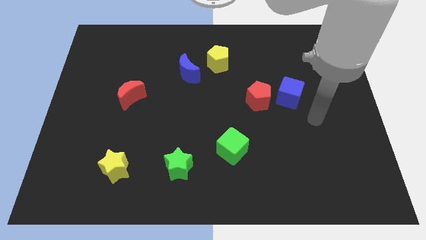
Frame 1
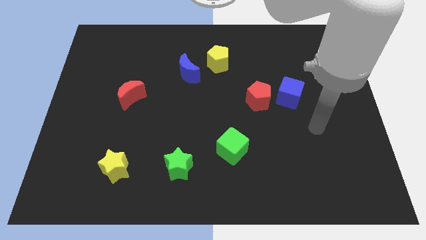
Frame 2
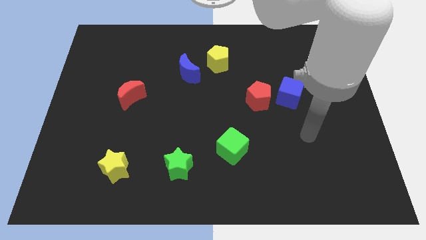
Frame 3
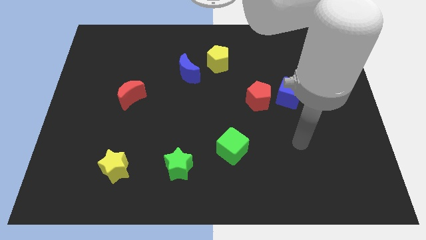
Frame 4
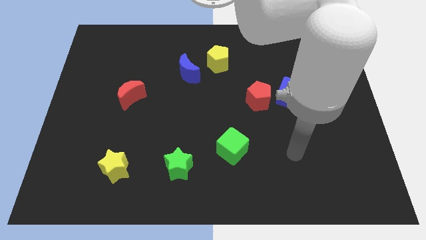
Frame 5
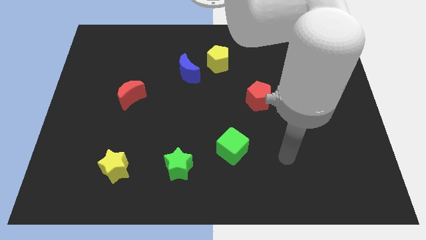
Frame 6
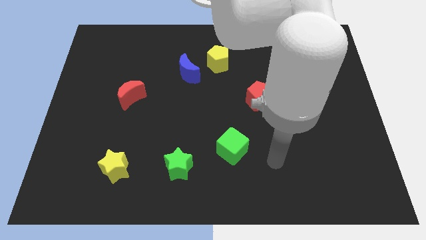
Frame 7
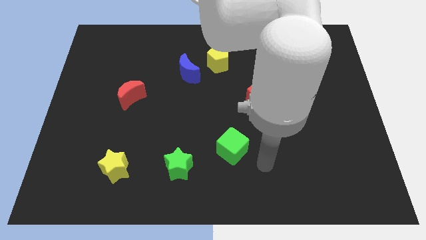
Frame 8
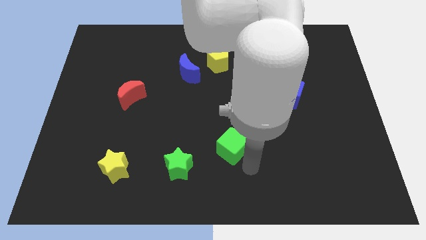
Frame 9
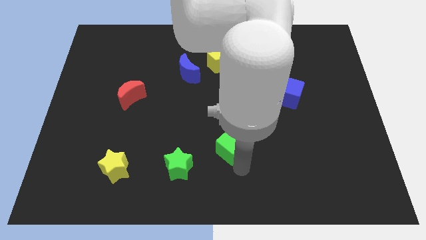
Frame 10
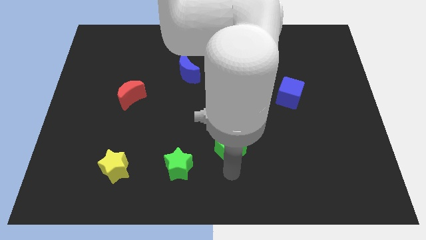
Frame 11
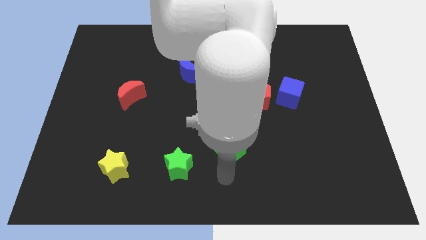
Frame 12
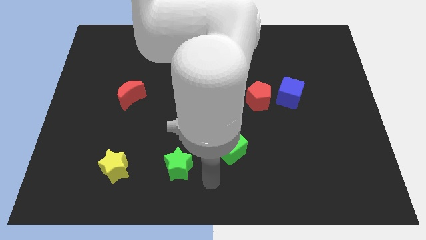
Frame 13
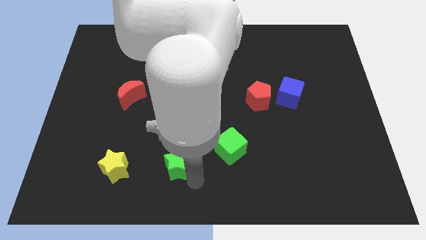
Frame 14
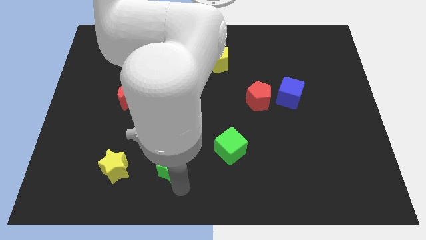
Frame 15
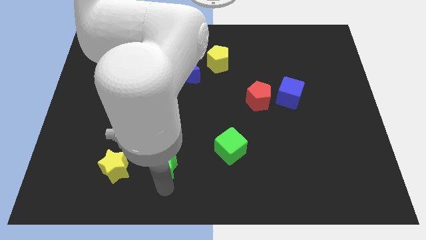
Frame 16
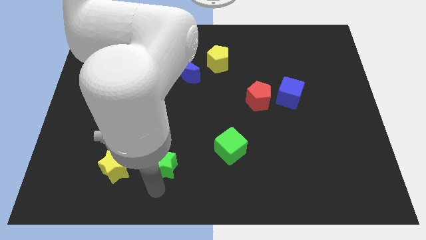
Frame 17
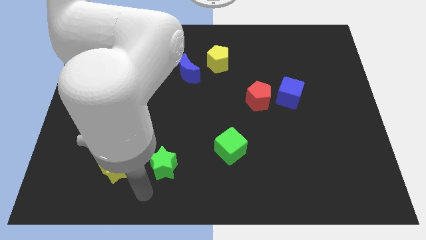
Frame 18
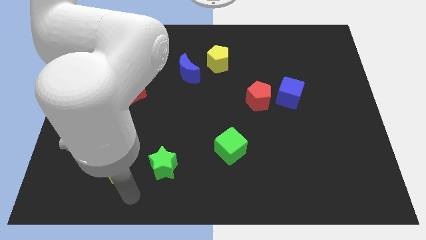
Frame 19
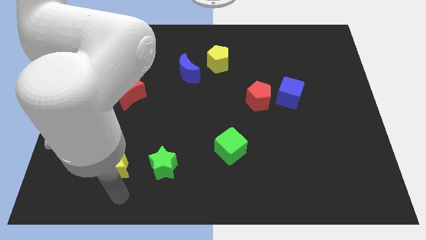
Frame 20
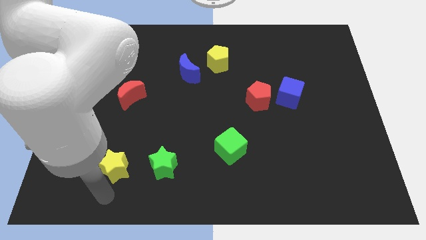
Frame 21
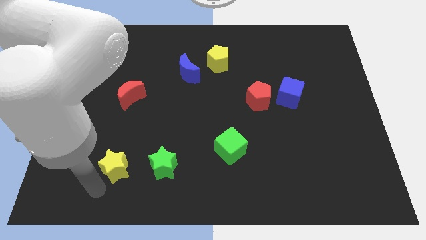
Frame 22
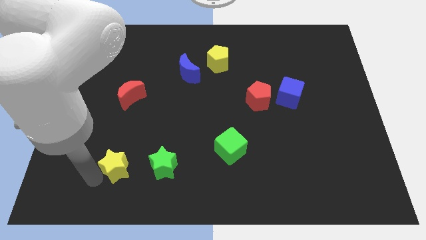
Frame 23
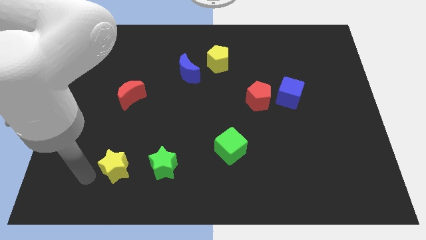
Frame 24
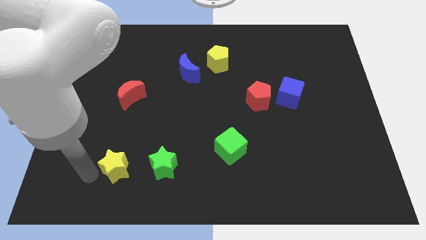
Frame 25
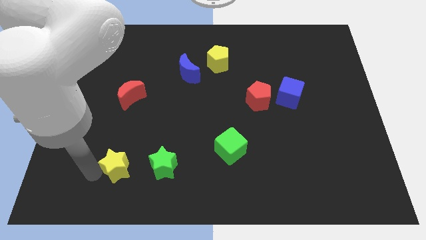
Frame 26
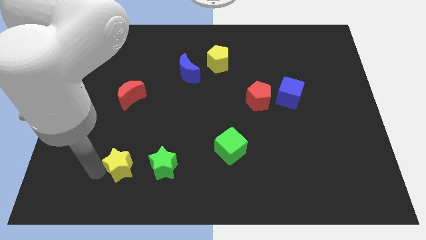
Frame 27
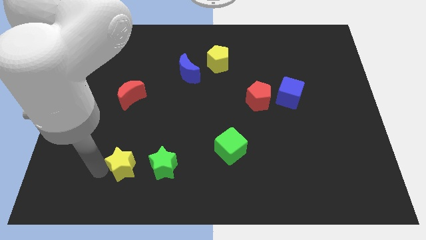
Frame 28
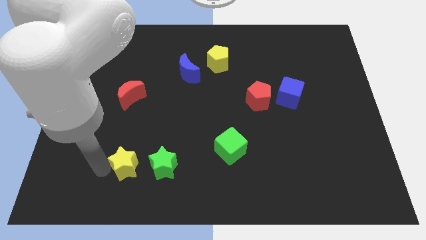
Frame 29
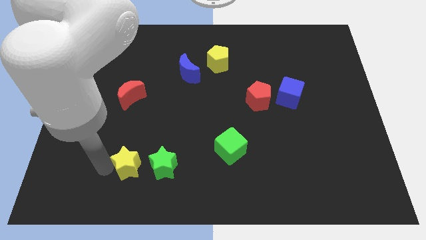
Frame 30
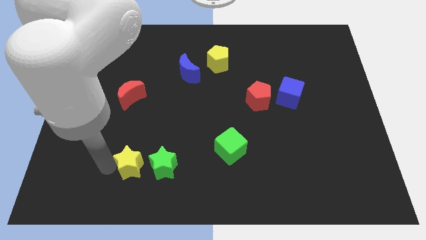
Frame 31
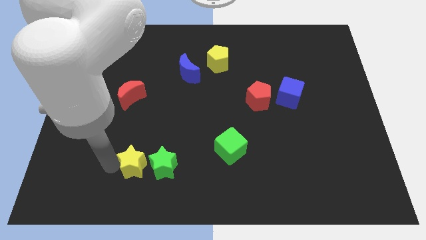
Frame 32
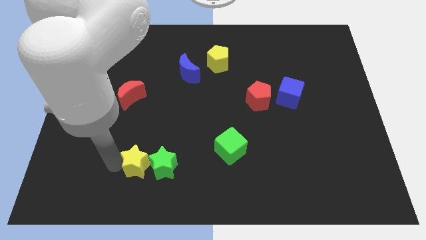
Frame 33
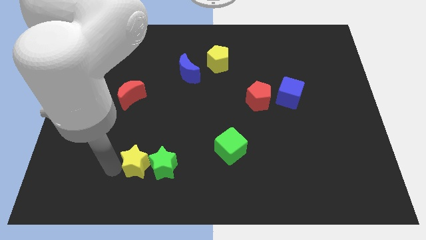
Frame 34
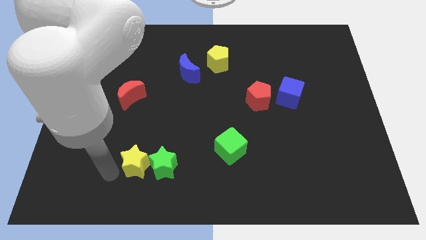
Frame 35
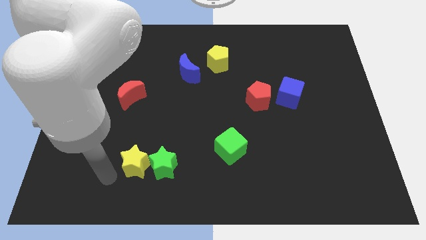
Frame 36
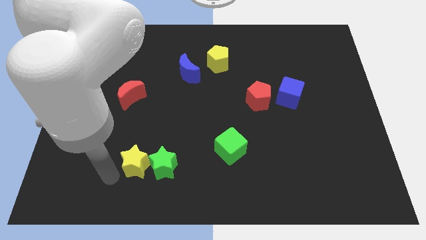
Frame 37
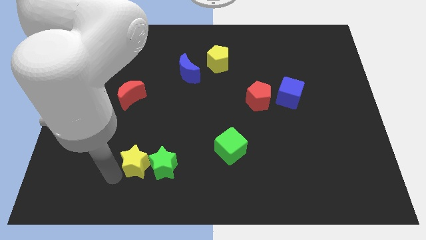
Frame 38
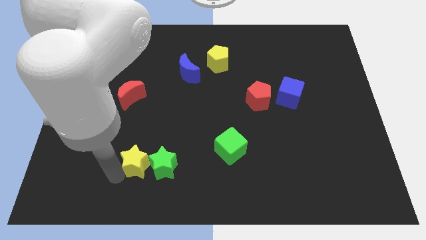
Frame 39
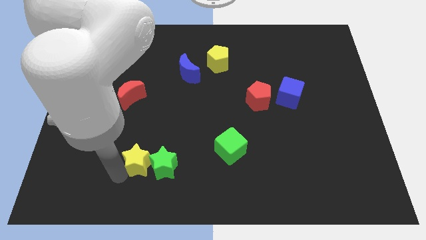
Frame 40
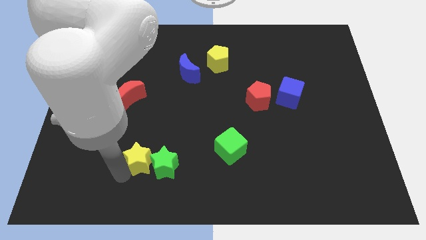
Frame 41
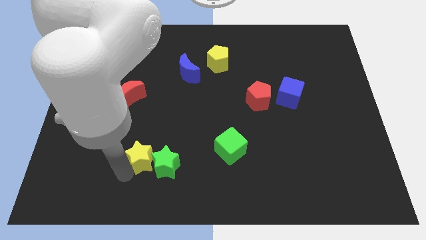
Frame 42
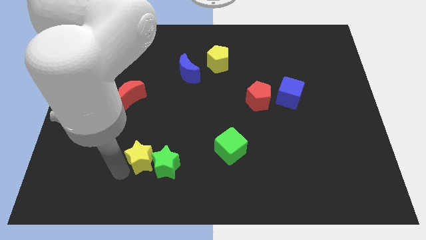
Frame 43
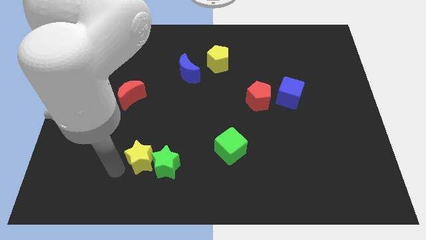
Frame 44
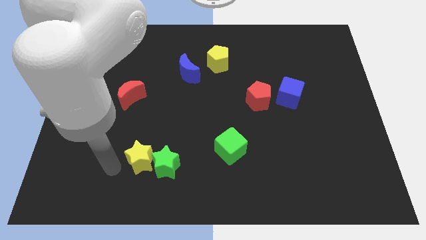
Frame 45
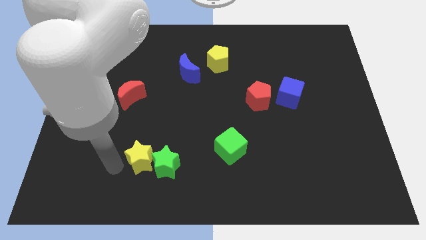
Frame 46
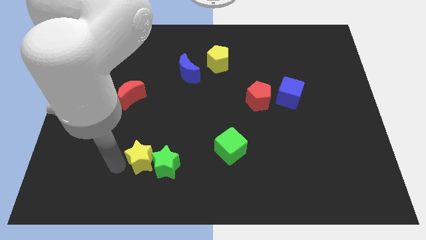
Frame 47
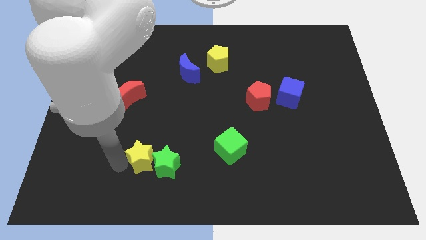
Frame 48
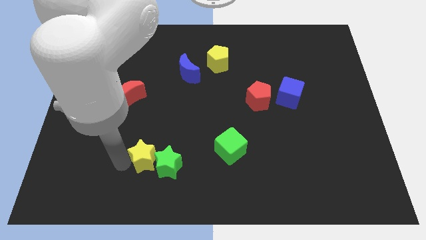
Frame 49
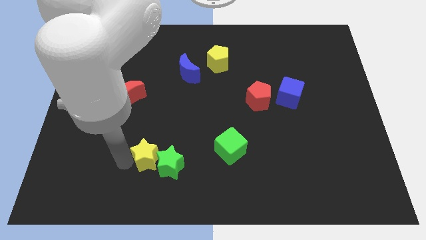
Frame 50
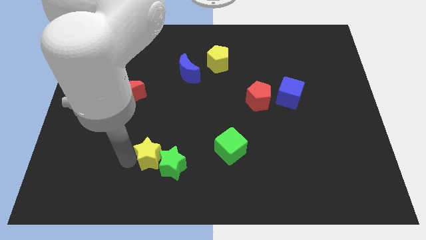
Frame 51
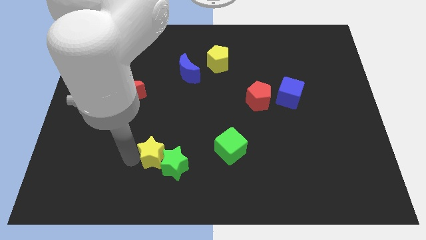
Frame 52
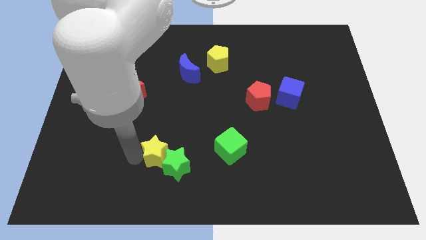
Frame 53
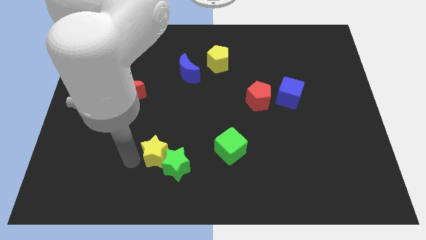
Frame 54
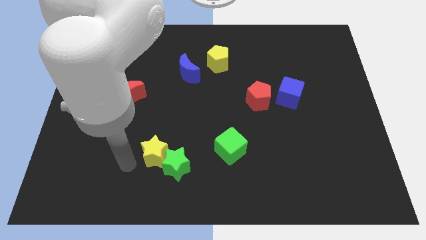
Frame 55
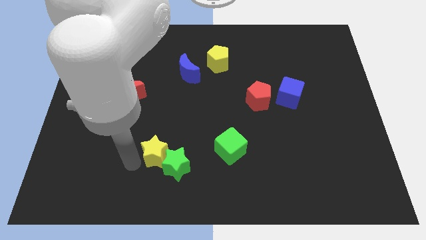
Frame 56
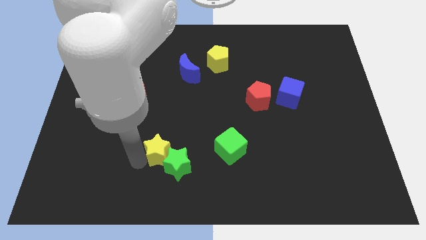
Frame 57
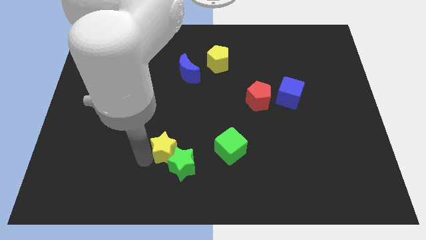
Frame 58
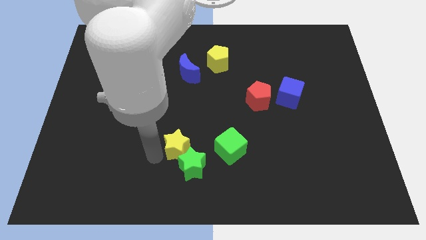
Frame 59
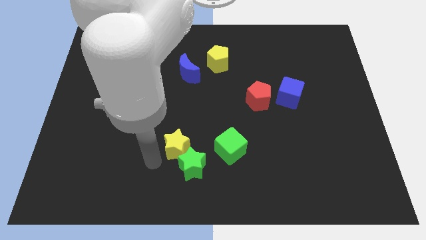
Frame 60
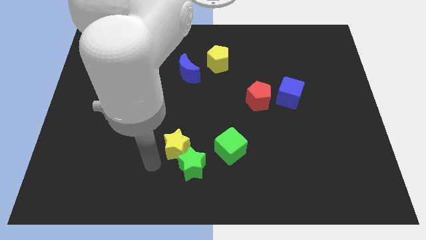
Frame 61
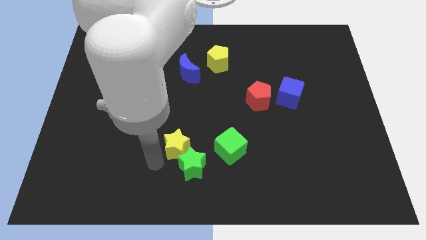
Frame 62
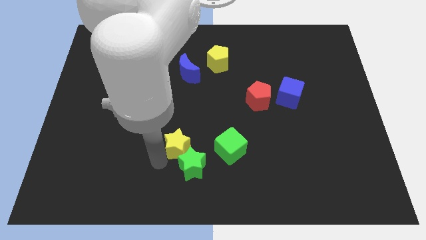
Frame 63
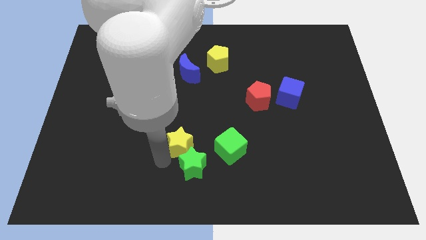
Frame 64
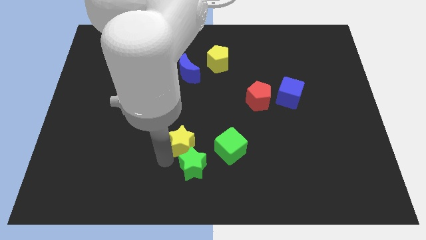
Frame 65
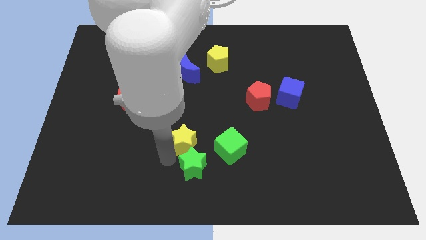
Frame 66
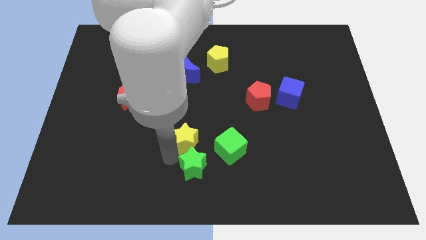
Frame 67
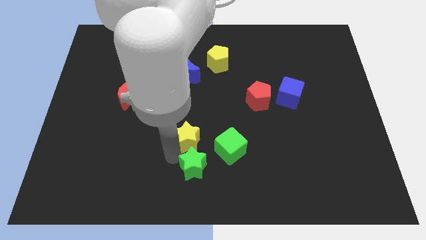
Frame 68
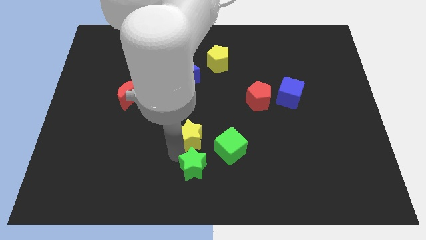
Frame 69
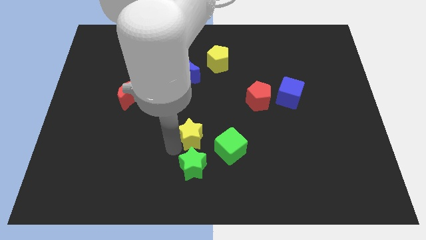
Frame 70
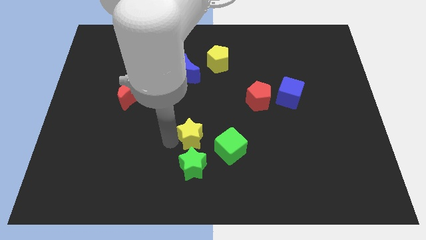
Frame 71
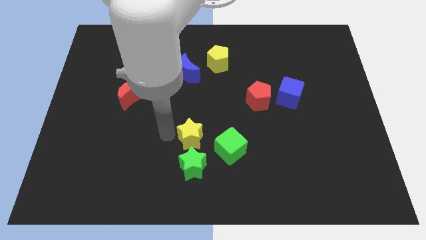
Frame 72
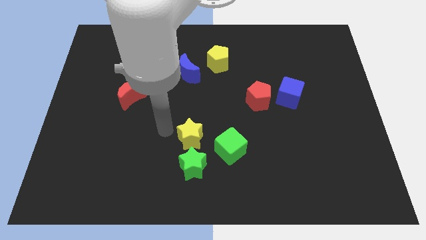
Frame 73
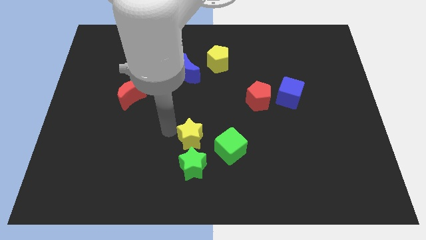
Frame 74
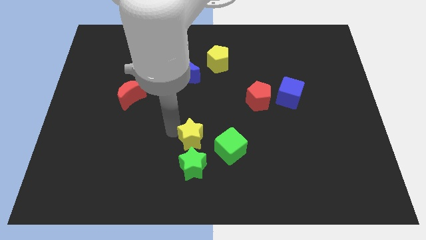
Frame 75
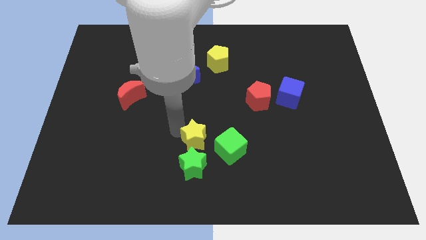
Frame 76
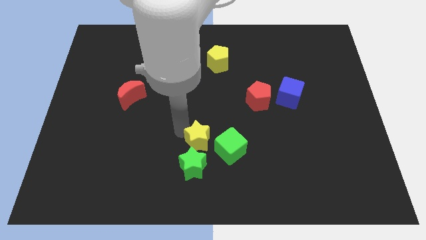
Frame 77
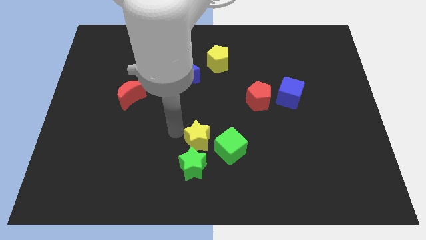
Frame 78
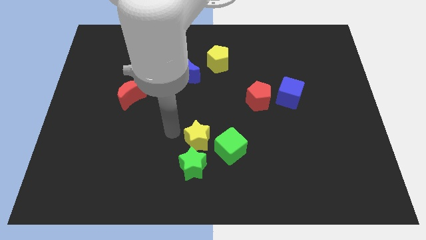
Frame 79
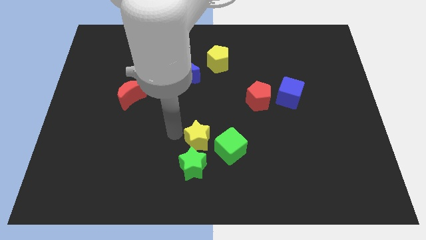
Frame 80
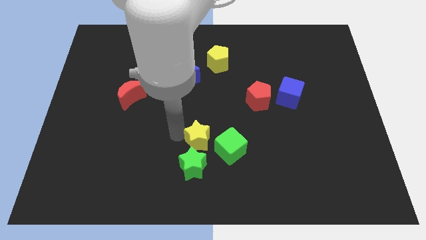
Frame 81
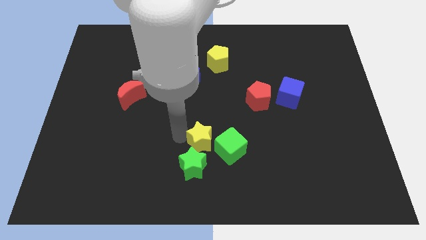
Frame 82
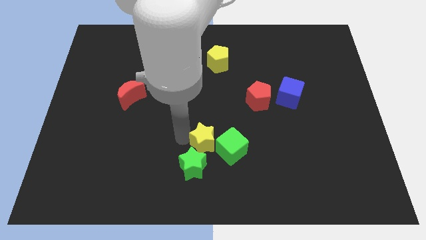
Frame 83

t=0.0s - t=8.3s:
push the yellow star next to the green cube
